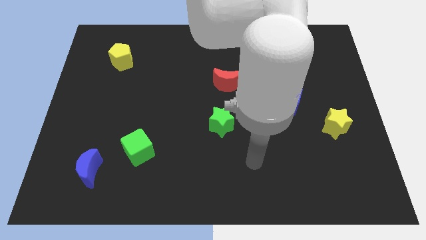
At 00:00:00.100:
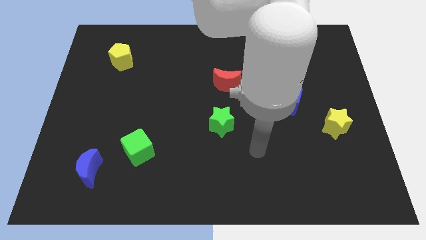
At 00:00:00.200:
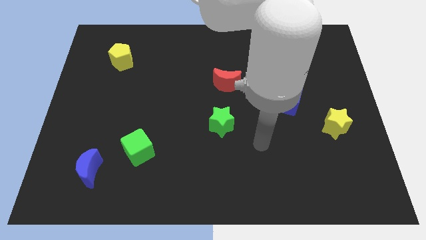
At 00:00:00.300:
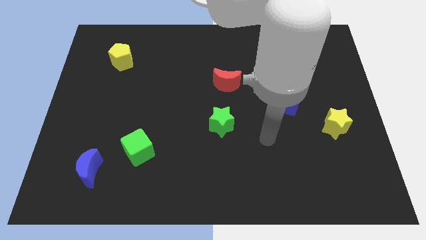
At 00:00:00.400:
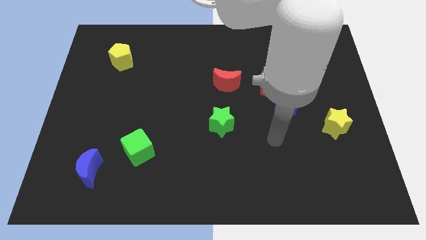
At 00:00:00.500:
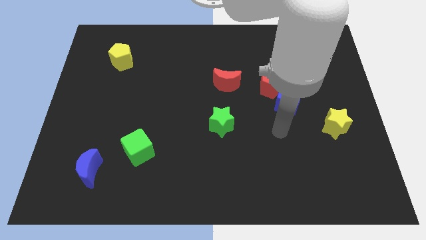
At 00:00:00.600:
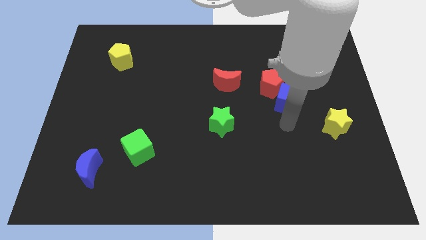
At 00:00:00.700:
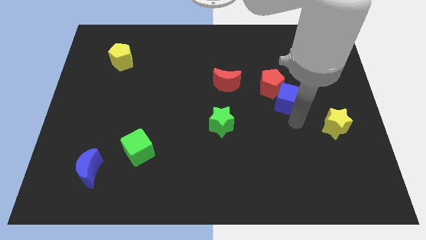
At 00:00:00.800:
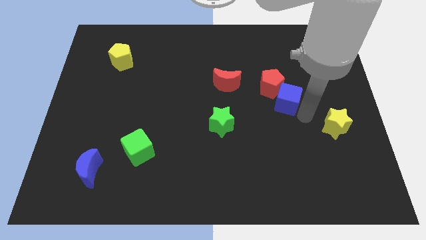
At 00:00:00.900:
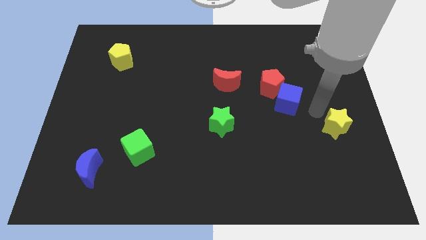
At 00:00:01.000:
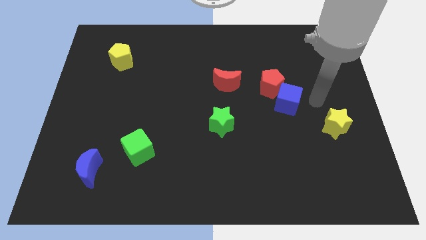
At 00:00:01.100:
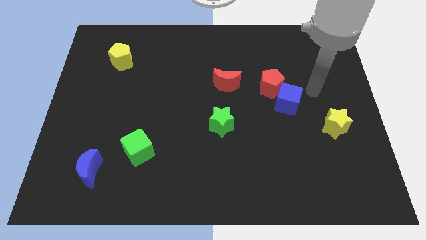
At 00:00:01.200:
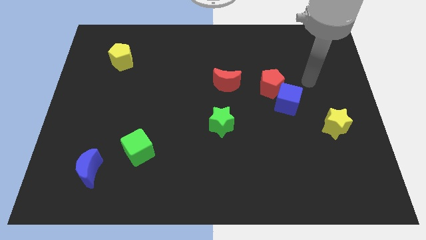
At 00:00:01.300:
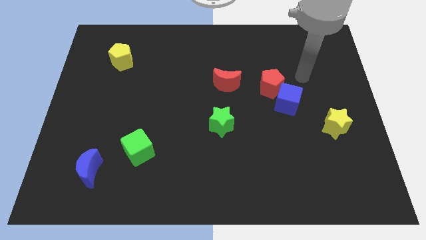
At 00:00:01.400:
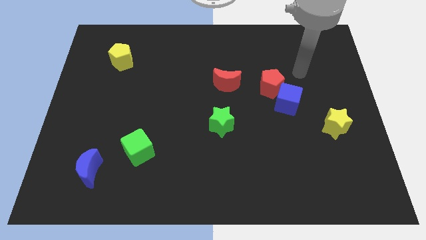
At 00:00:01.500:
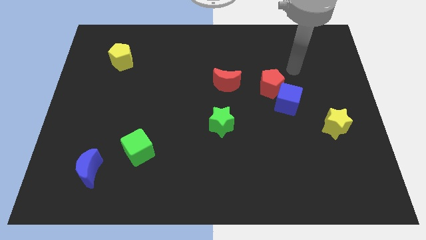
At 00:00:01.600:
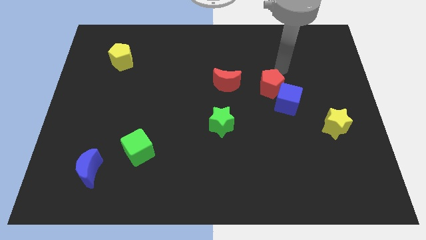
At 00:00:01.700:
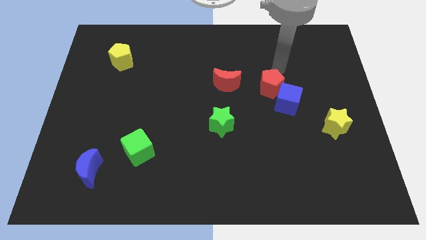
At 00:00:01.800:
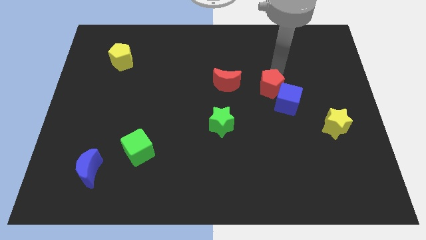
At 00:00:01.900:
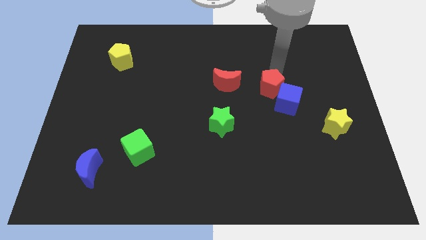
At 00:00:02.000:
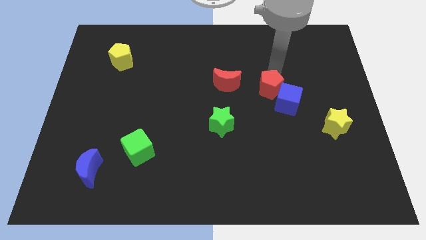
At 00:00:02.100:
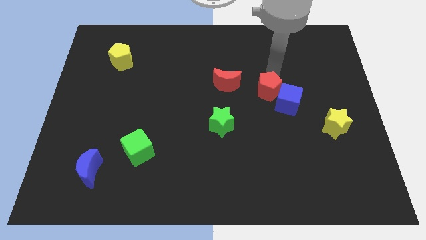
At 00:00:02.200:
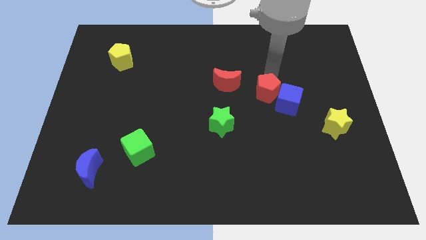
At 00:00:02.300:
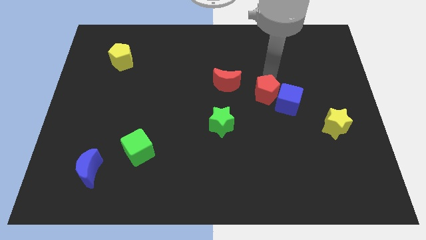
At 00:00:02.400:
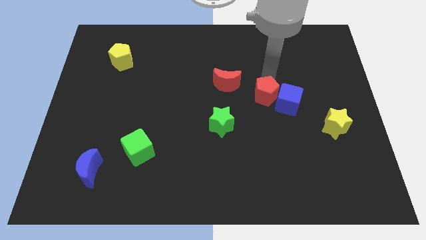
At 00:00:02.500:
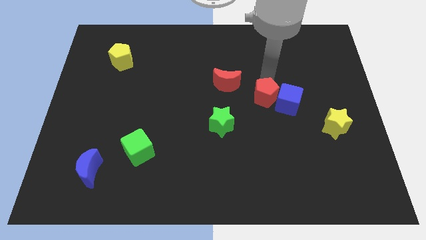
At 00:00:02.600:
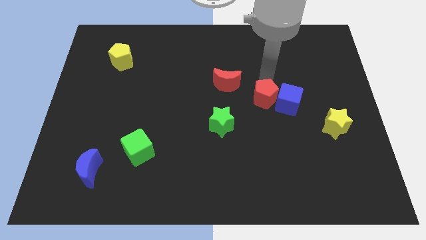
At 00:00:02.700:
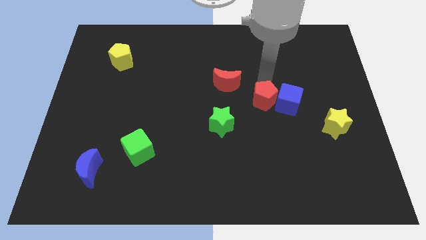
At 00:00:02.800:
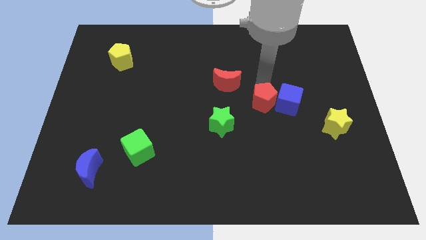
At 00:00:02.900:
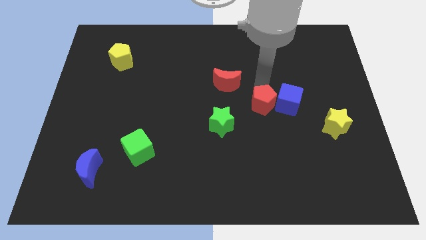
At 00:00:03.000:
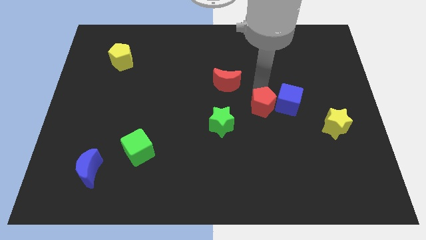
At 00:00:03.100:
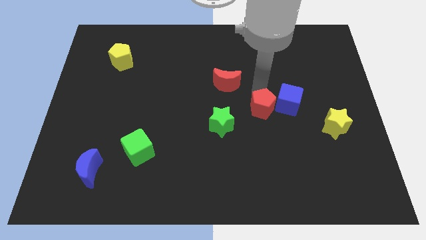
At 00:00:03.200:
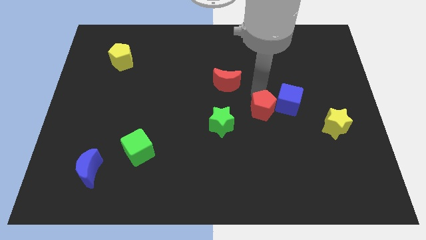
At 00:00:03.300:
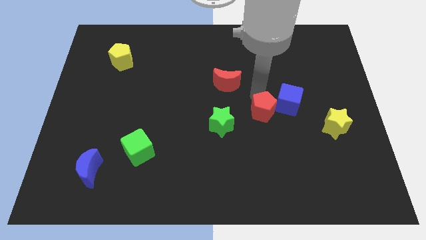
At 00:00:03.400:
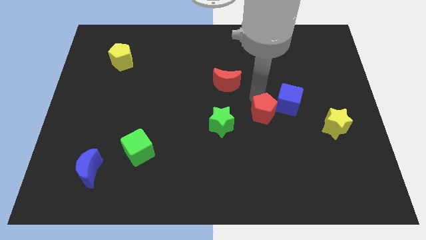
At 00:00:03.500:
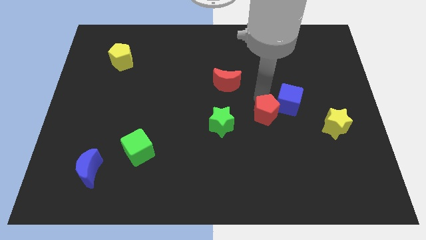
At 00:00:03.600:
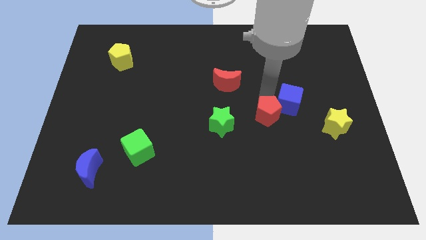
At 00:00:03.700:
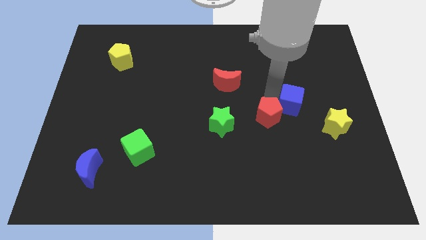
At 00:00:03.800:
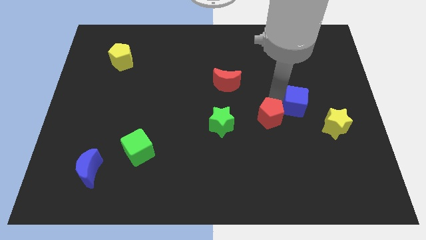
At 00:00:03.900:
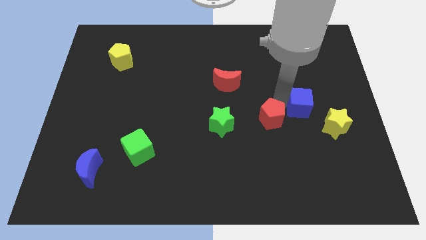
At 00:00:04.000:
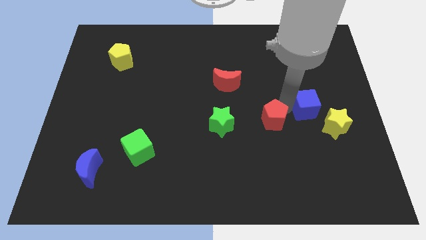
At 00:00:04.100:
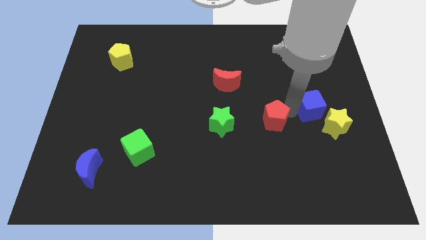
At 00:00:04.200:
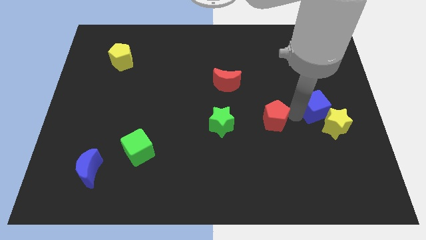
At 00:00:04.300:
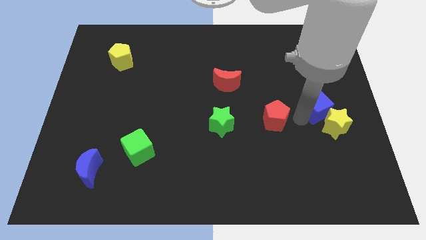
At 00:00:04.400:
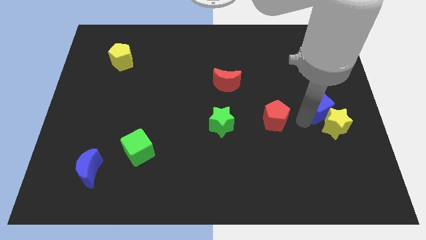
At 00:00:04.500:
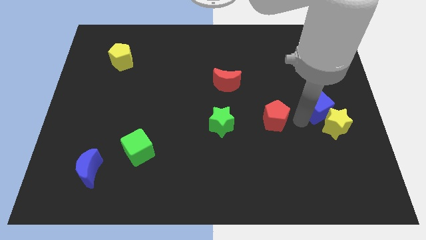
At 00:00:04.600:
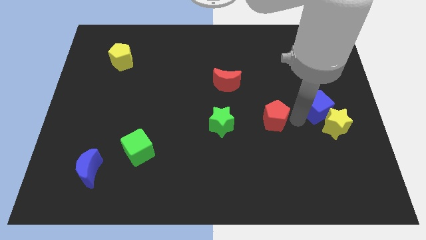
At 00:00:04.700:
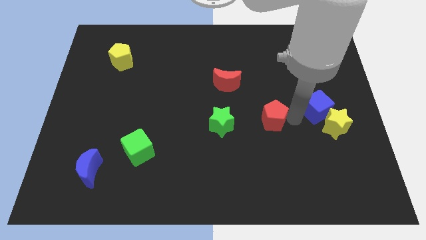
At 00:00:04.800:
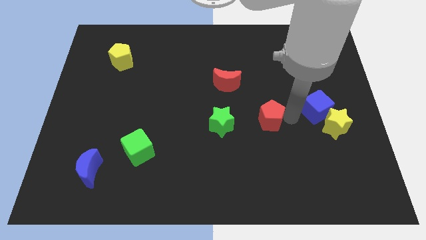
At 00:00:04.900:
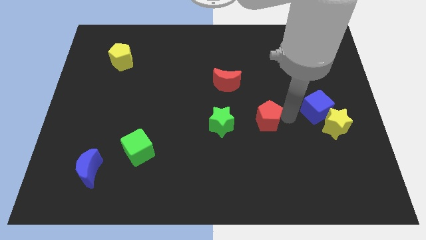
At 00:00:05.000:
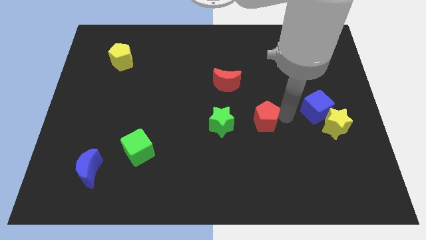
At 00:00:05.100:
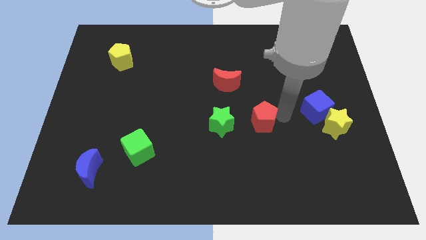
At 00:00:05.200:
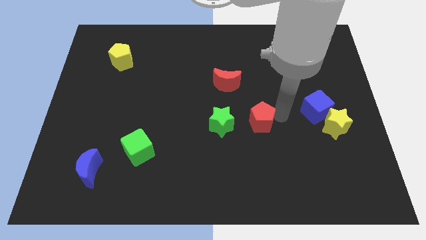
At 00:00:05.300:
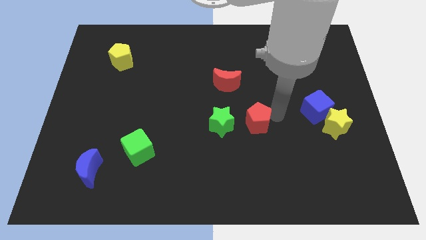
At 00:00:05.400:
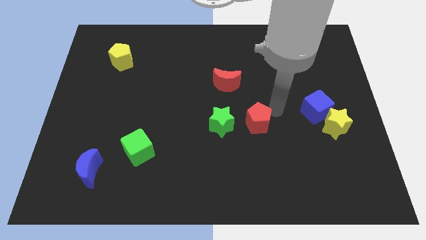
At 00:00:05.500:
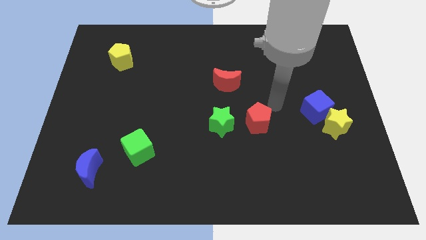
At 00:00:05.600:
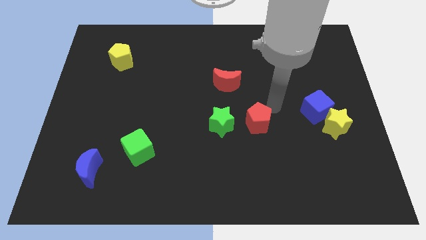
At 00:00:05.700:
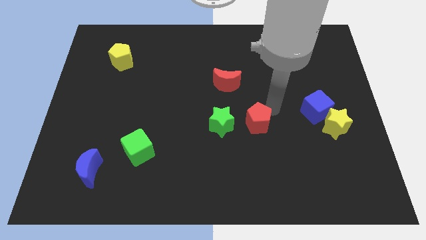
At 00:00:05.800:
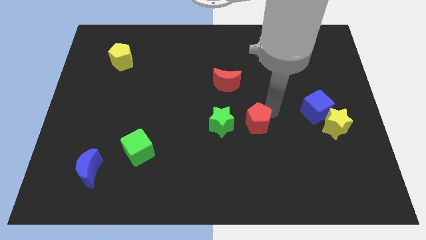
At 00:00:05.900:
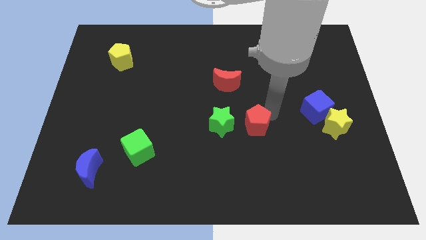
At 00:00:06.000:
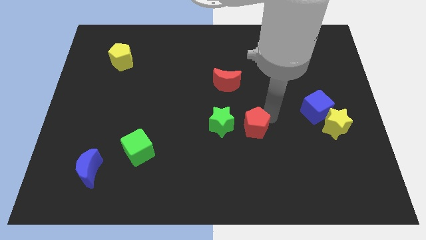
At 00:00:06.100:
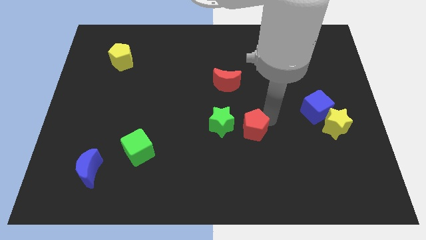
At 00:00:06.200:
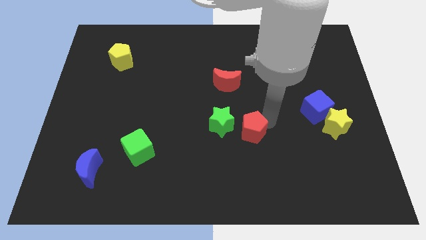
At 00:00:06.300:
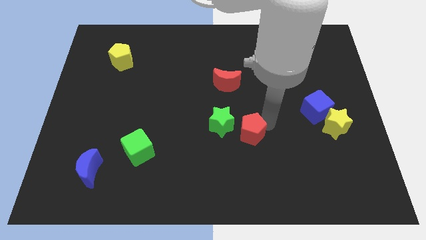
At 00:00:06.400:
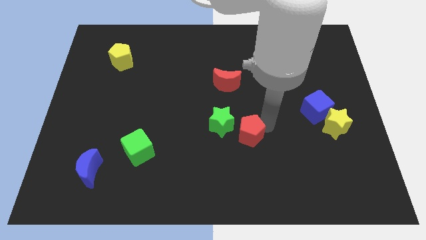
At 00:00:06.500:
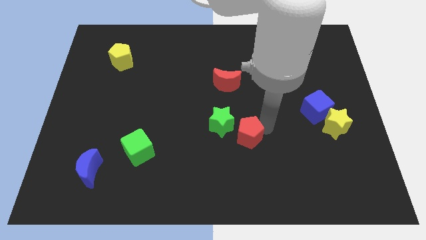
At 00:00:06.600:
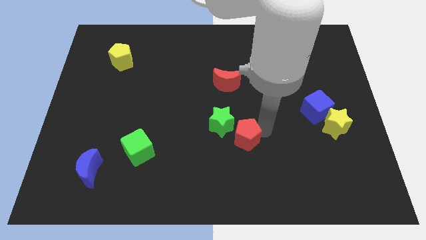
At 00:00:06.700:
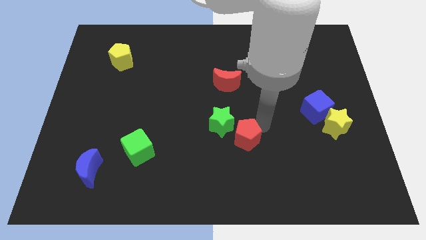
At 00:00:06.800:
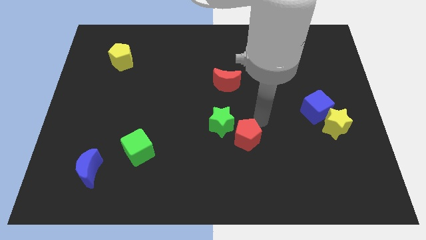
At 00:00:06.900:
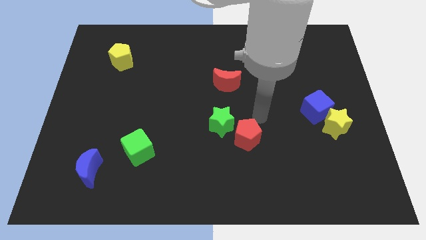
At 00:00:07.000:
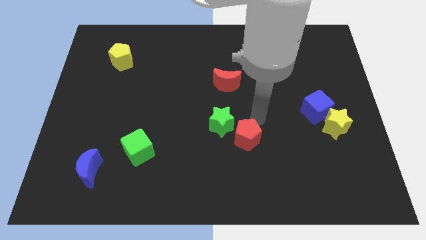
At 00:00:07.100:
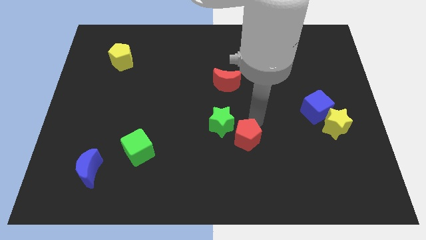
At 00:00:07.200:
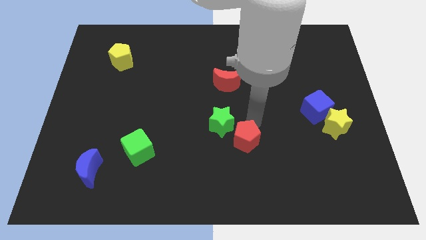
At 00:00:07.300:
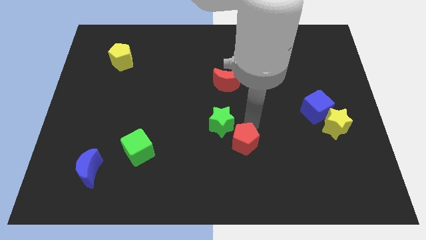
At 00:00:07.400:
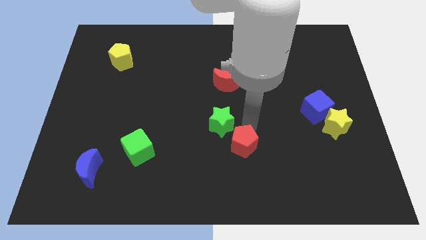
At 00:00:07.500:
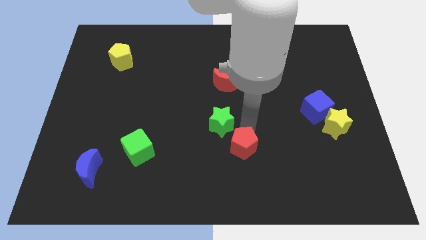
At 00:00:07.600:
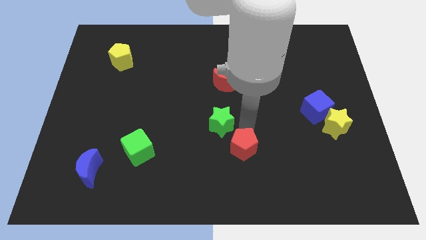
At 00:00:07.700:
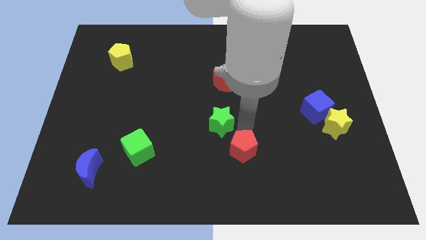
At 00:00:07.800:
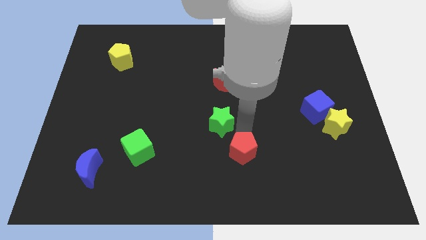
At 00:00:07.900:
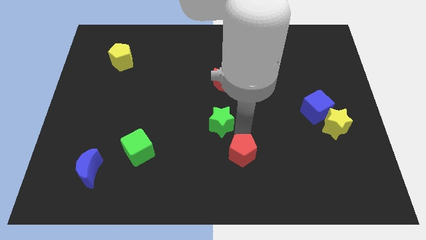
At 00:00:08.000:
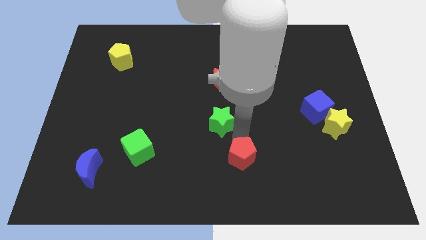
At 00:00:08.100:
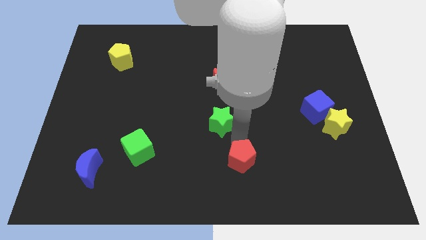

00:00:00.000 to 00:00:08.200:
put the red pentagon to the bottom
